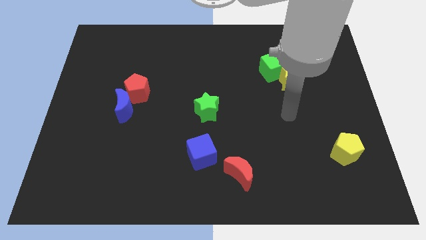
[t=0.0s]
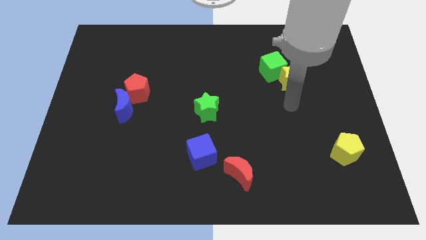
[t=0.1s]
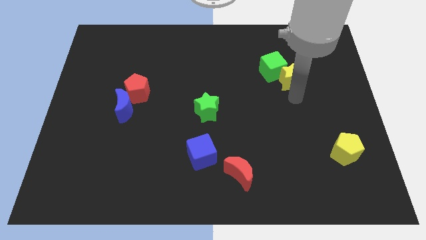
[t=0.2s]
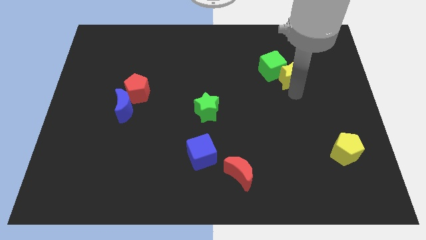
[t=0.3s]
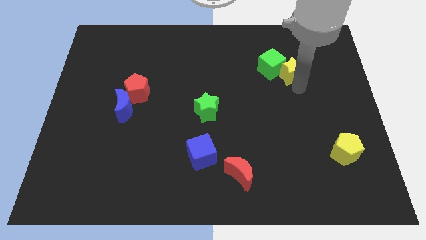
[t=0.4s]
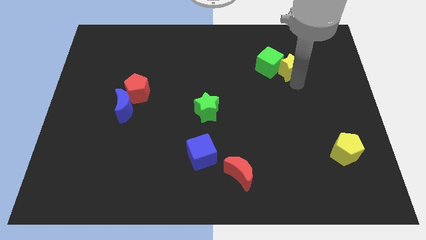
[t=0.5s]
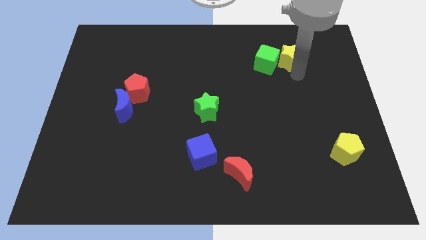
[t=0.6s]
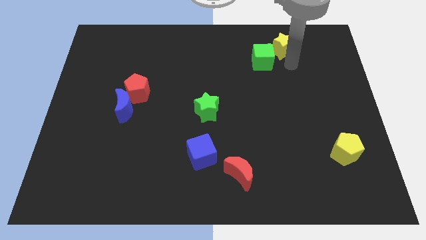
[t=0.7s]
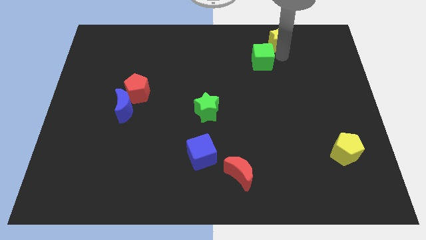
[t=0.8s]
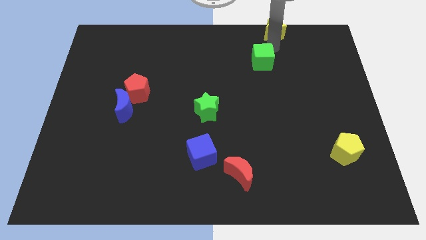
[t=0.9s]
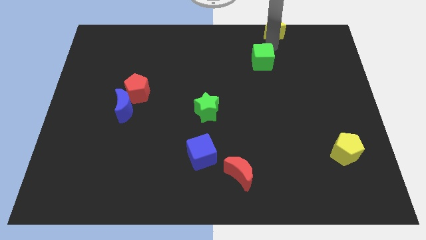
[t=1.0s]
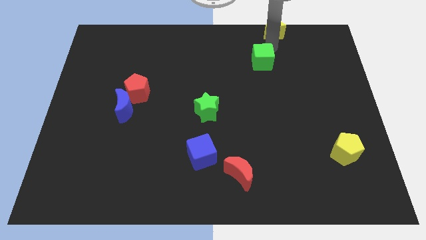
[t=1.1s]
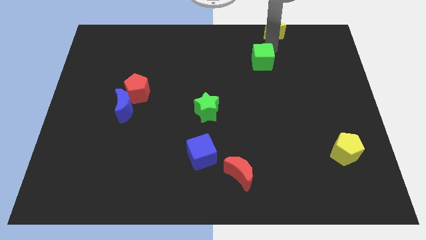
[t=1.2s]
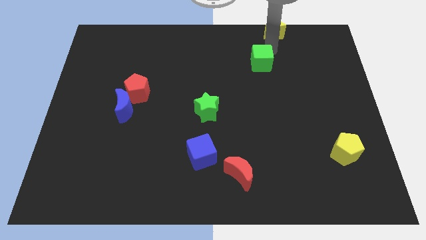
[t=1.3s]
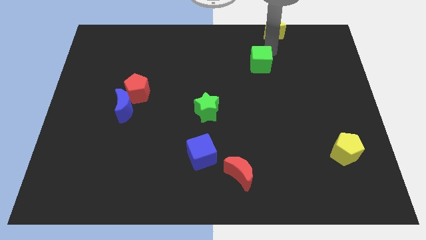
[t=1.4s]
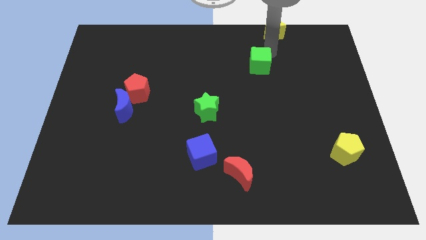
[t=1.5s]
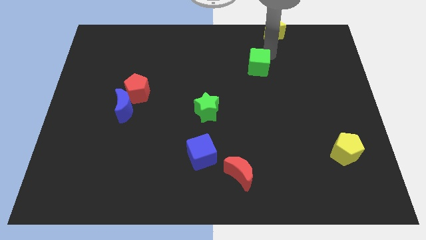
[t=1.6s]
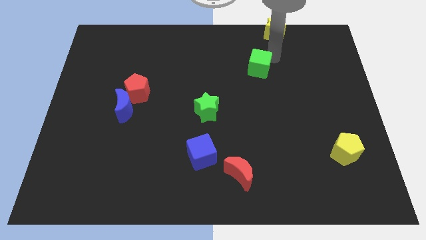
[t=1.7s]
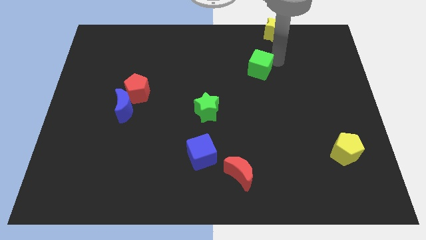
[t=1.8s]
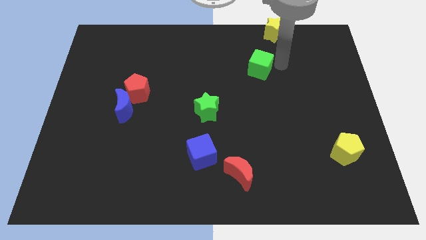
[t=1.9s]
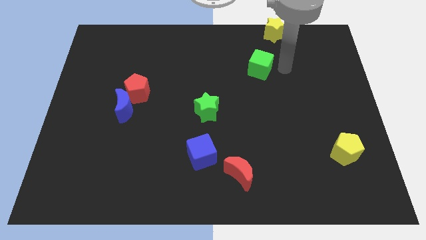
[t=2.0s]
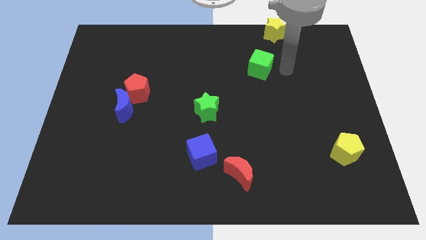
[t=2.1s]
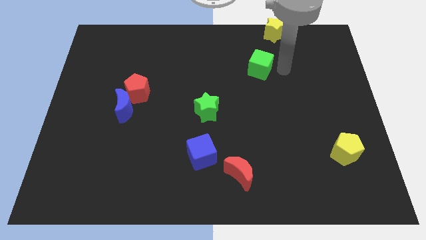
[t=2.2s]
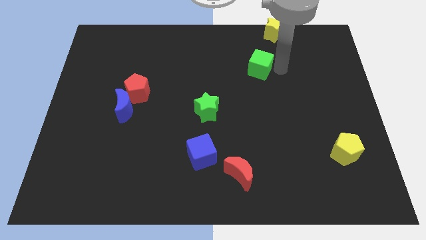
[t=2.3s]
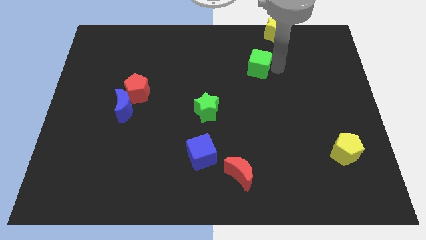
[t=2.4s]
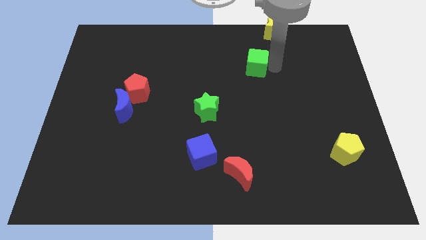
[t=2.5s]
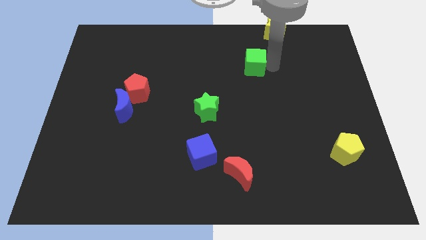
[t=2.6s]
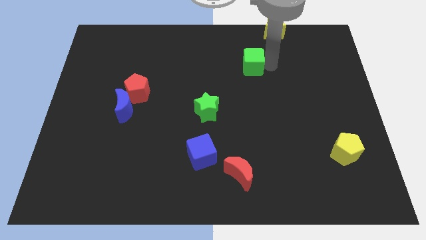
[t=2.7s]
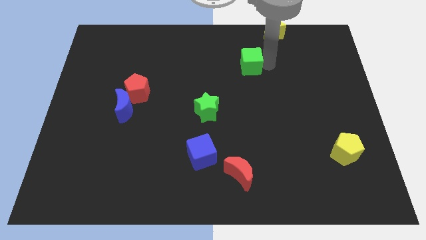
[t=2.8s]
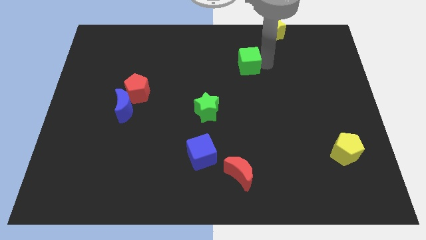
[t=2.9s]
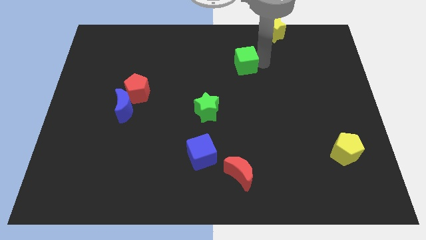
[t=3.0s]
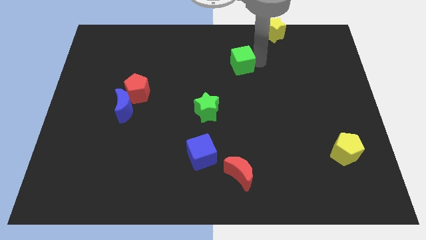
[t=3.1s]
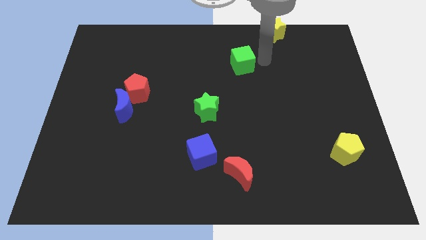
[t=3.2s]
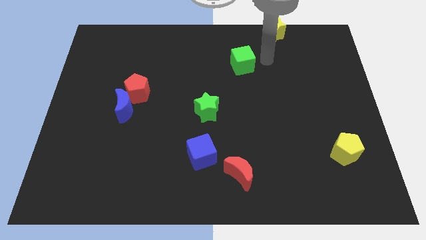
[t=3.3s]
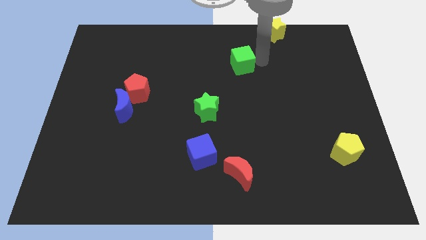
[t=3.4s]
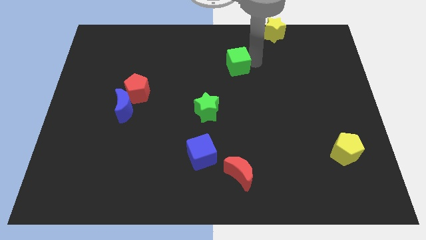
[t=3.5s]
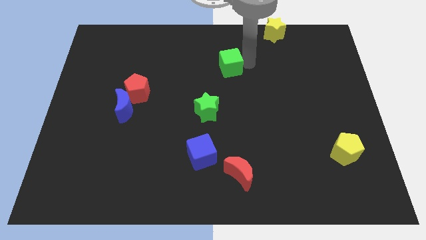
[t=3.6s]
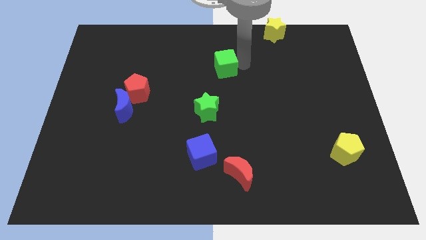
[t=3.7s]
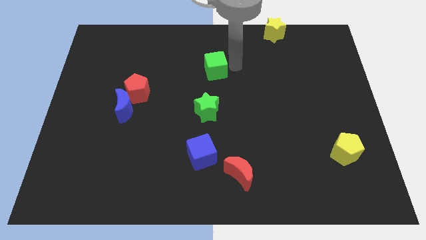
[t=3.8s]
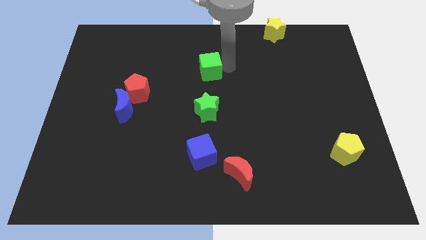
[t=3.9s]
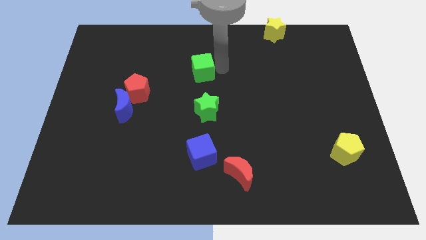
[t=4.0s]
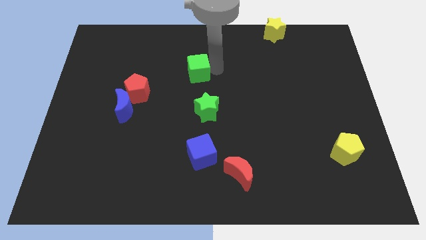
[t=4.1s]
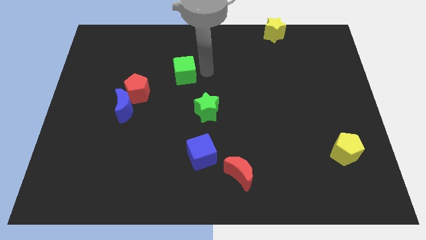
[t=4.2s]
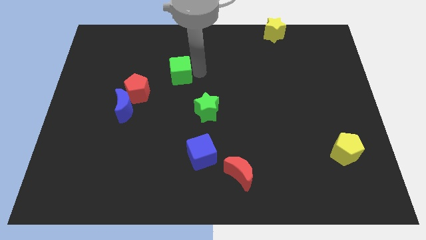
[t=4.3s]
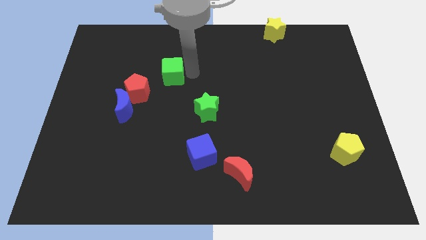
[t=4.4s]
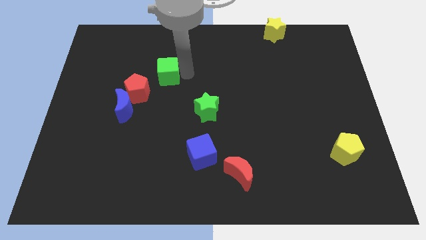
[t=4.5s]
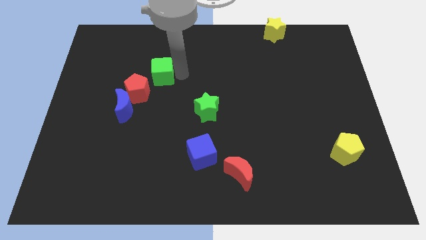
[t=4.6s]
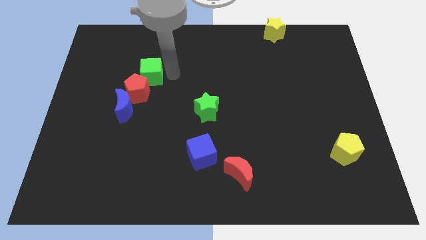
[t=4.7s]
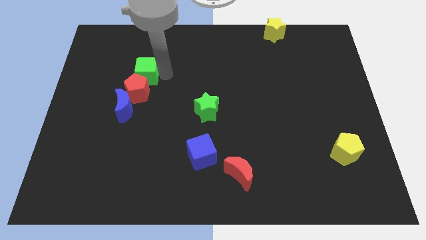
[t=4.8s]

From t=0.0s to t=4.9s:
push the green cube to the top side of the blue moon

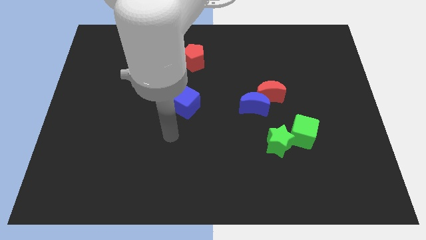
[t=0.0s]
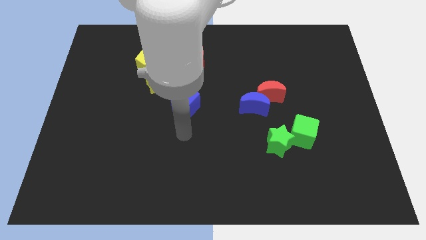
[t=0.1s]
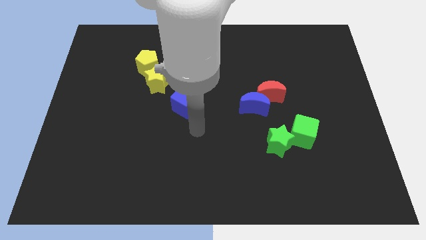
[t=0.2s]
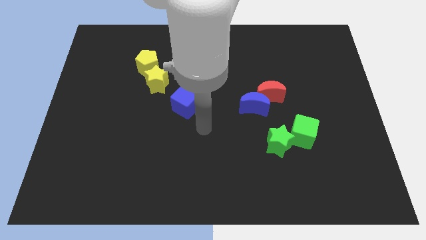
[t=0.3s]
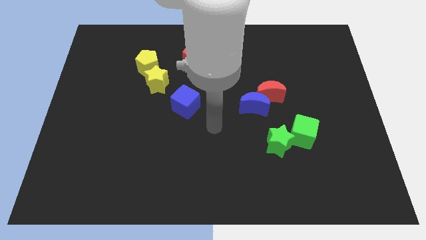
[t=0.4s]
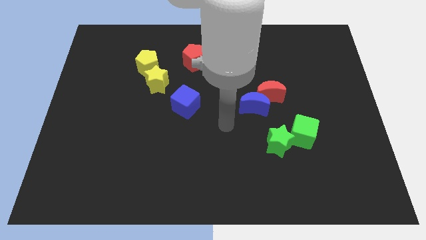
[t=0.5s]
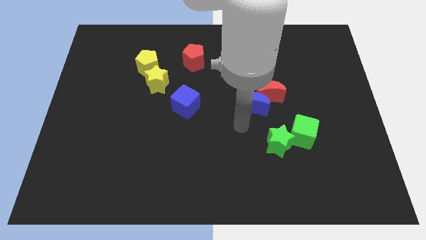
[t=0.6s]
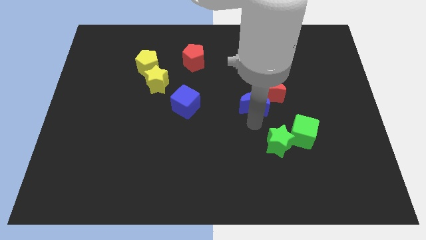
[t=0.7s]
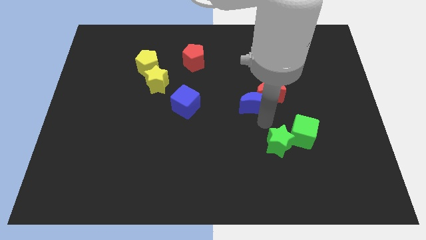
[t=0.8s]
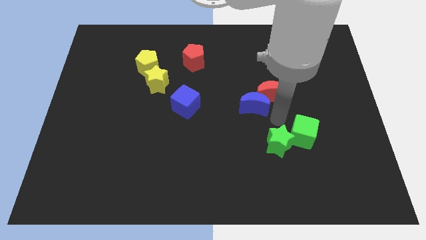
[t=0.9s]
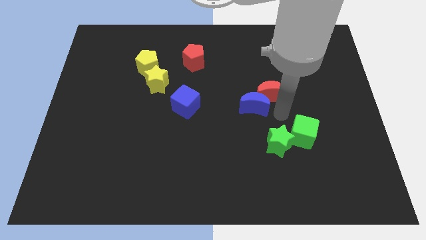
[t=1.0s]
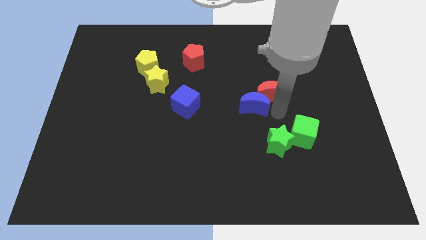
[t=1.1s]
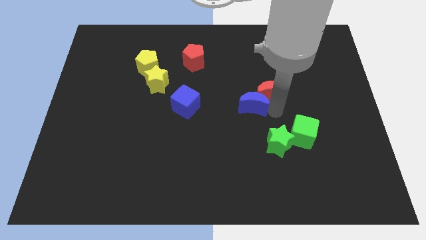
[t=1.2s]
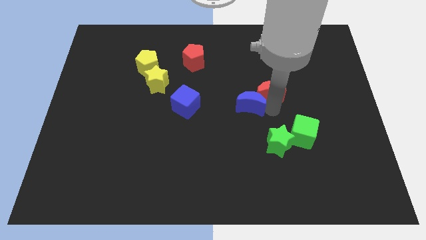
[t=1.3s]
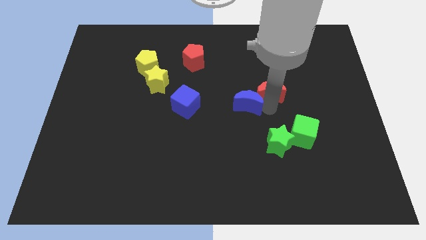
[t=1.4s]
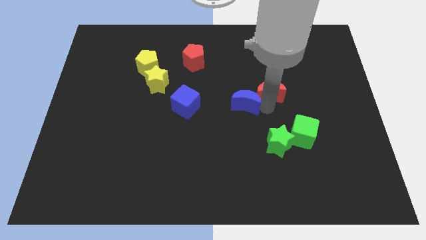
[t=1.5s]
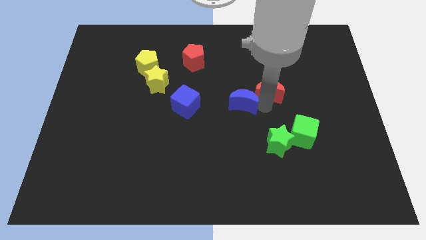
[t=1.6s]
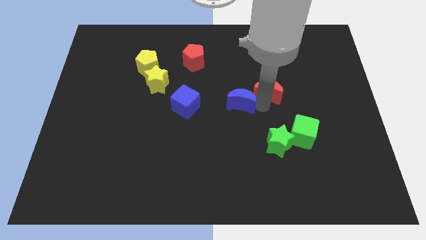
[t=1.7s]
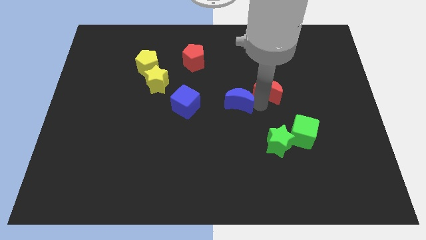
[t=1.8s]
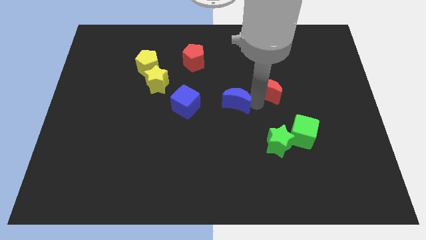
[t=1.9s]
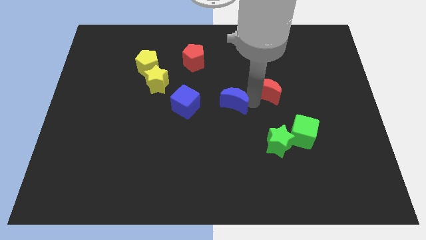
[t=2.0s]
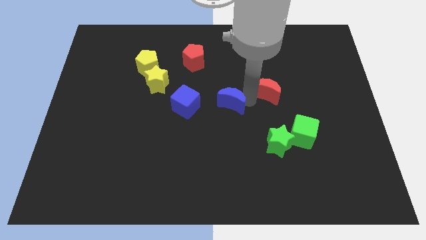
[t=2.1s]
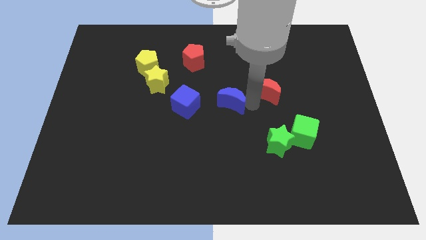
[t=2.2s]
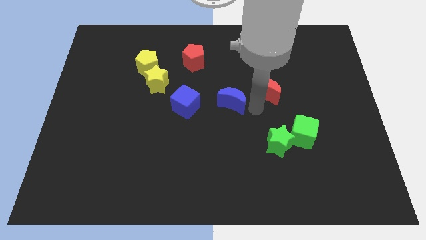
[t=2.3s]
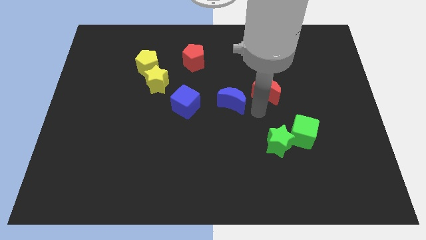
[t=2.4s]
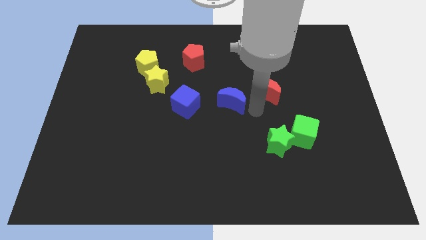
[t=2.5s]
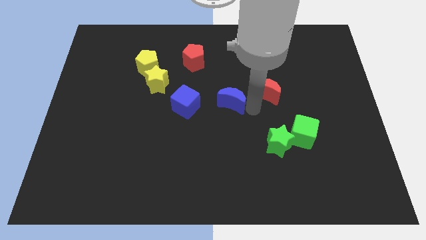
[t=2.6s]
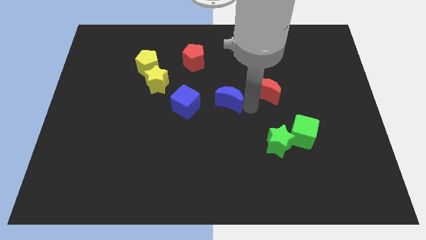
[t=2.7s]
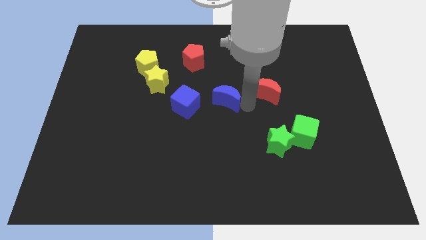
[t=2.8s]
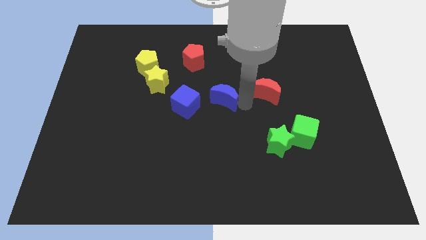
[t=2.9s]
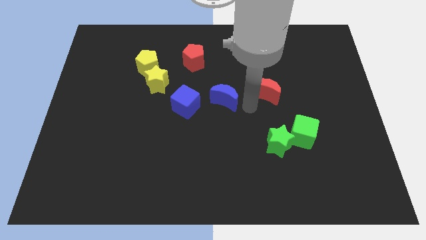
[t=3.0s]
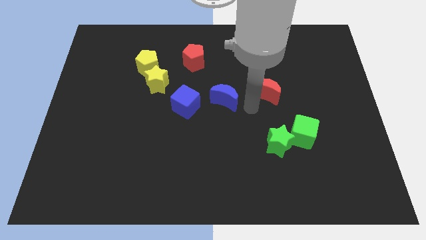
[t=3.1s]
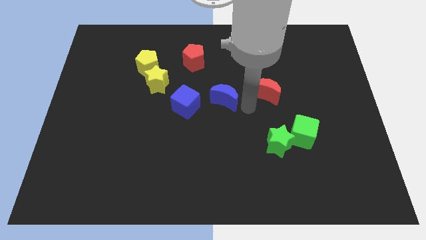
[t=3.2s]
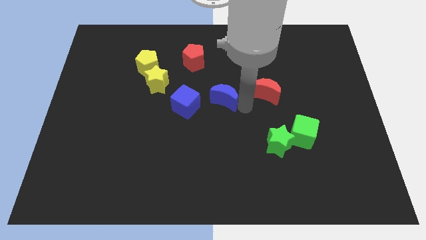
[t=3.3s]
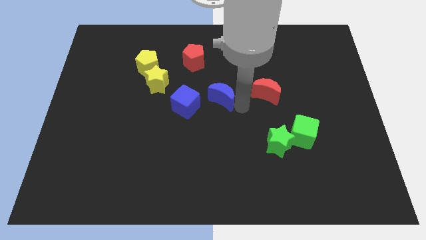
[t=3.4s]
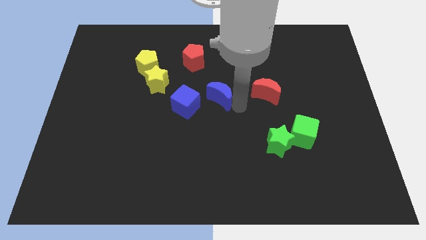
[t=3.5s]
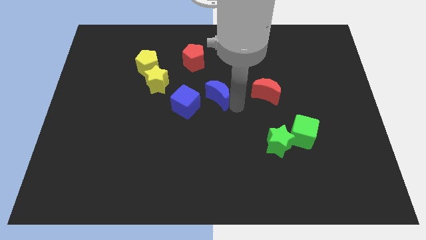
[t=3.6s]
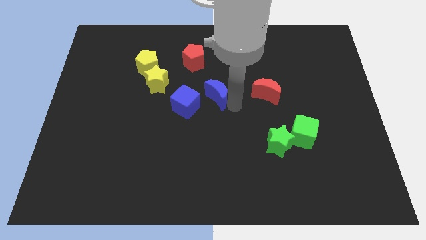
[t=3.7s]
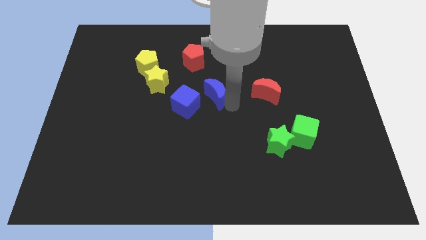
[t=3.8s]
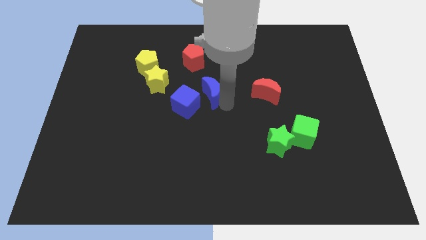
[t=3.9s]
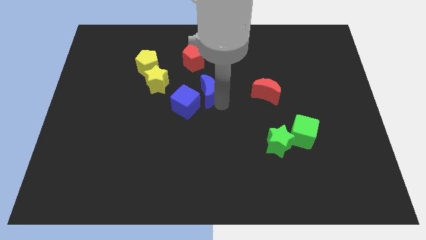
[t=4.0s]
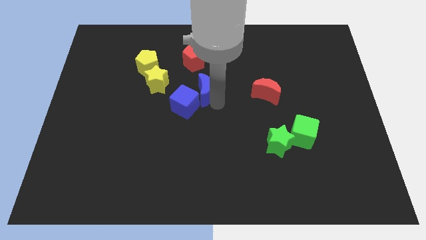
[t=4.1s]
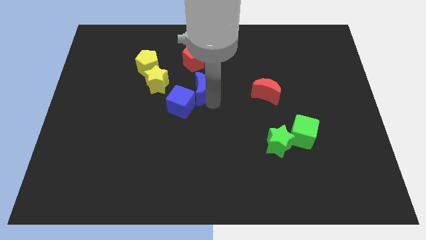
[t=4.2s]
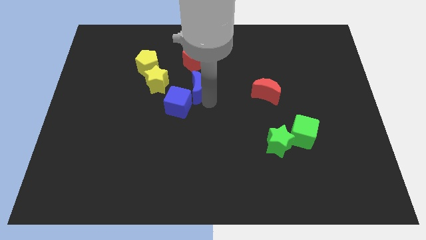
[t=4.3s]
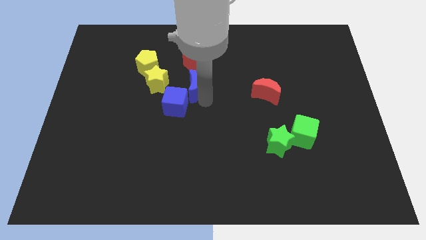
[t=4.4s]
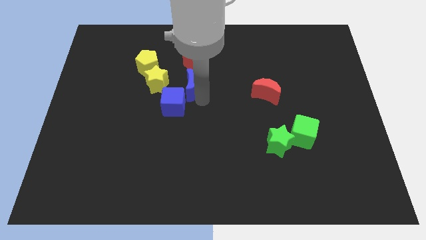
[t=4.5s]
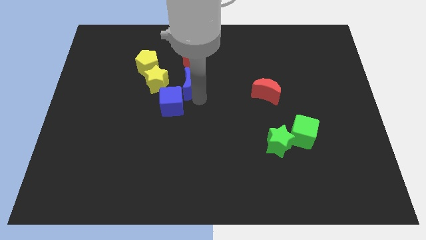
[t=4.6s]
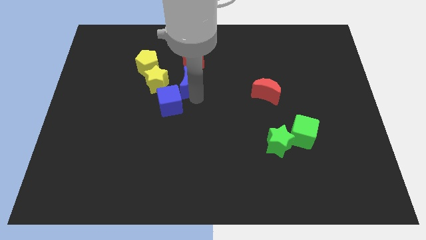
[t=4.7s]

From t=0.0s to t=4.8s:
move the blue moon to the bottom right of the yellow pentagon
